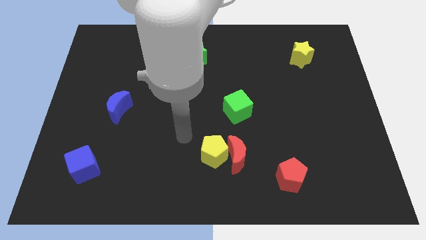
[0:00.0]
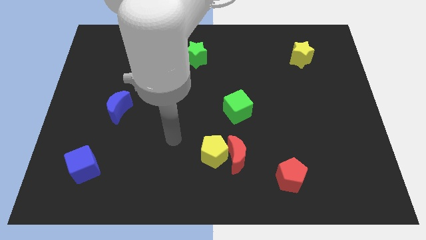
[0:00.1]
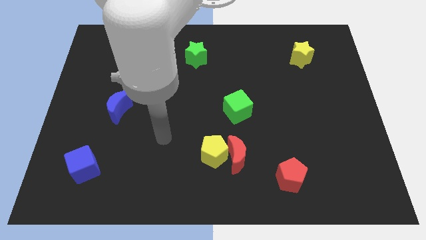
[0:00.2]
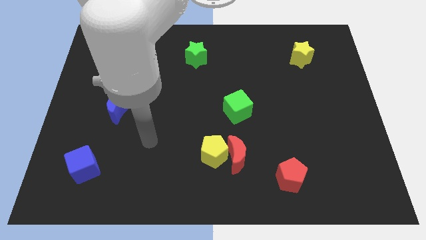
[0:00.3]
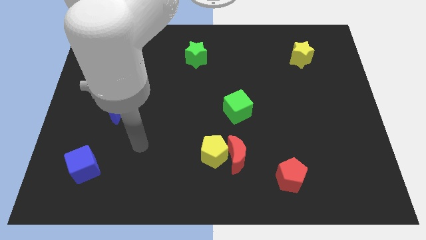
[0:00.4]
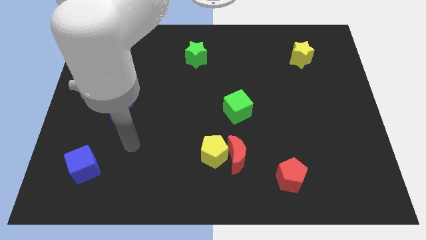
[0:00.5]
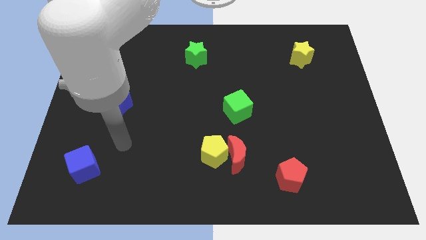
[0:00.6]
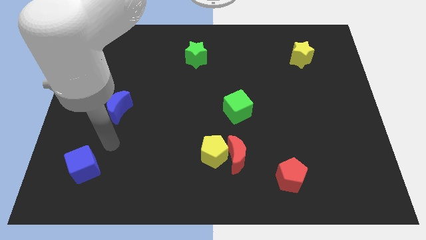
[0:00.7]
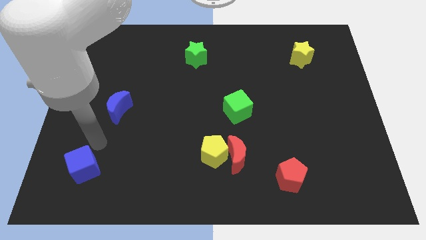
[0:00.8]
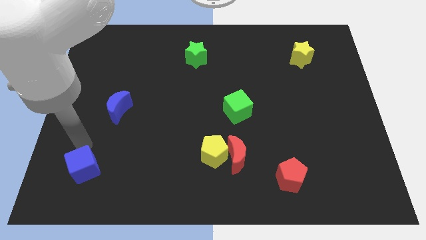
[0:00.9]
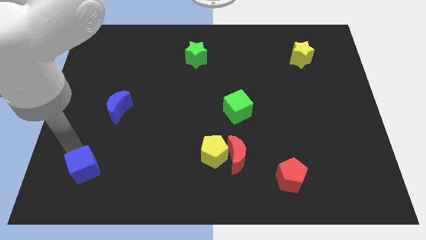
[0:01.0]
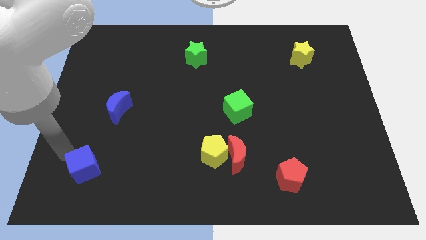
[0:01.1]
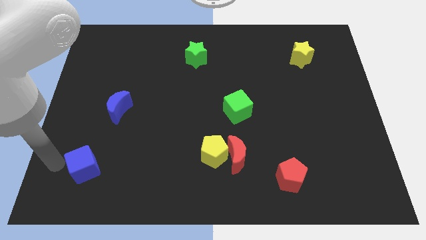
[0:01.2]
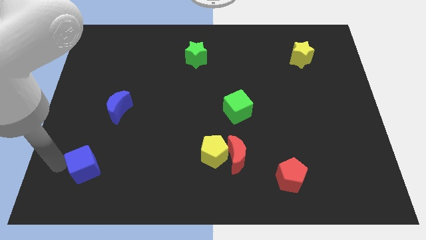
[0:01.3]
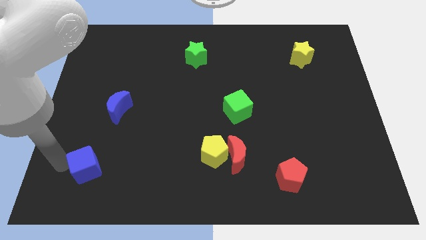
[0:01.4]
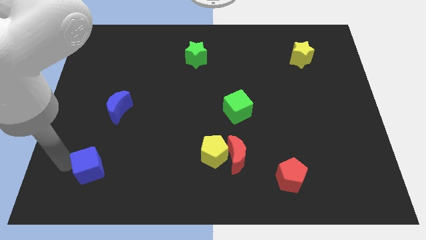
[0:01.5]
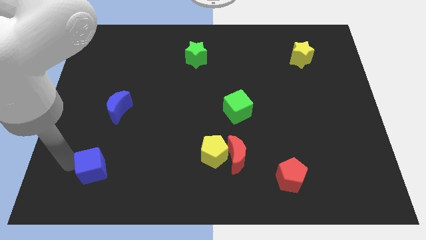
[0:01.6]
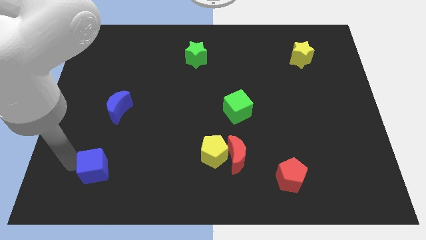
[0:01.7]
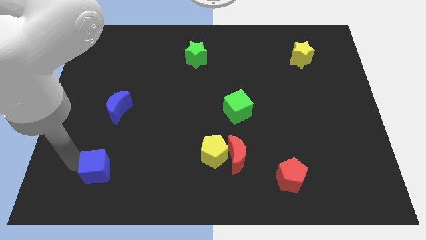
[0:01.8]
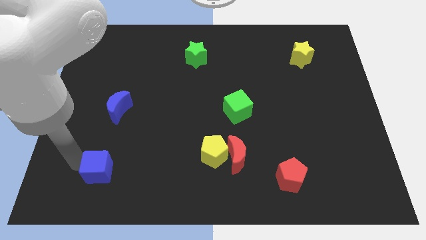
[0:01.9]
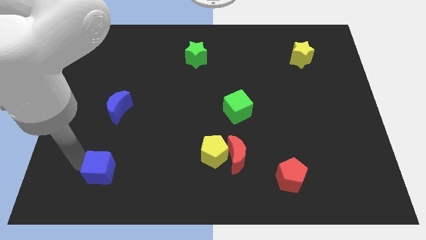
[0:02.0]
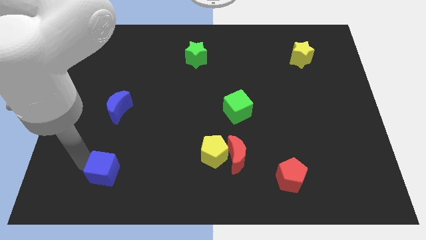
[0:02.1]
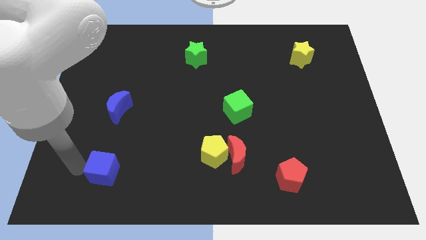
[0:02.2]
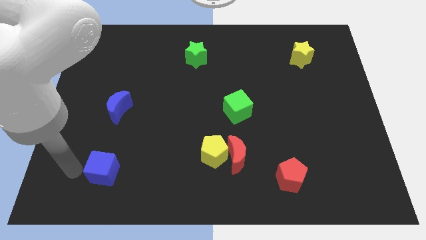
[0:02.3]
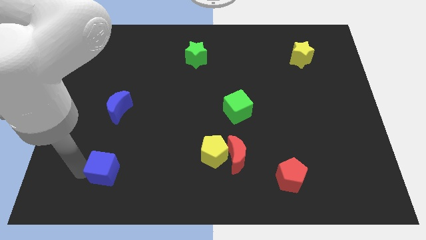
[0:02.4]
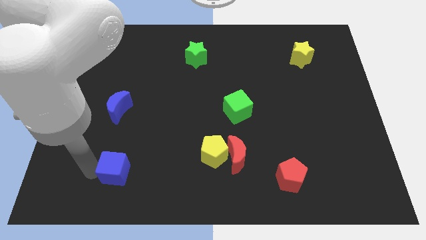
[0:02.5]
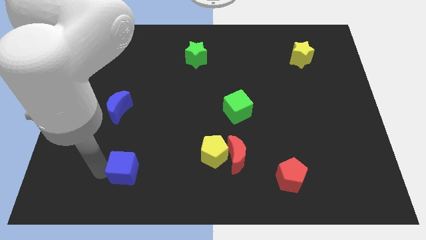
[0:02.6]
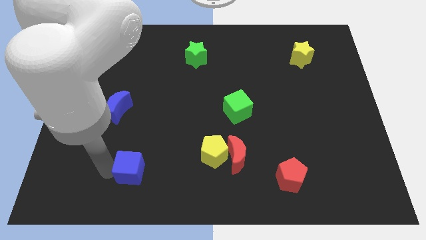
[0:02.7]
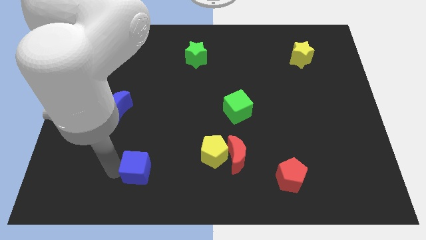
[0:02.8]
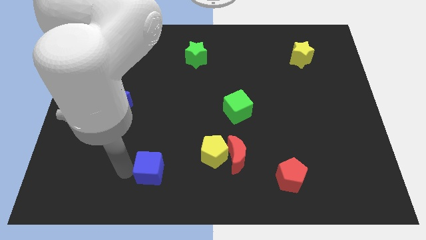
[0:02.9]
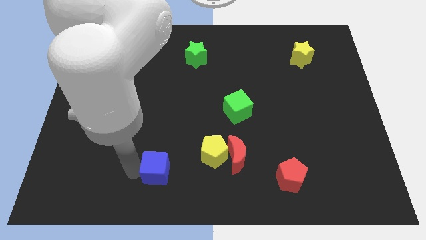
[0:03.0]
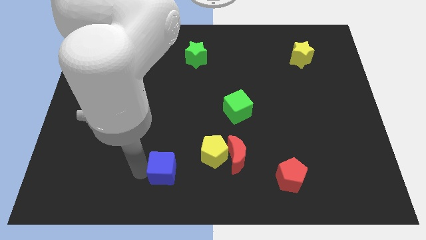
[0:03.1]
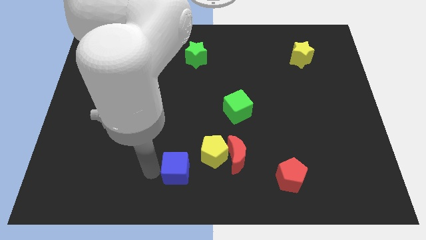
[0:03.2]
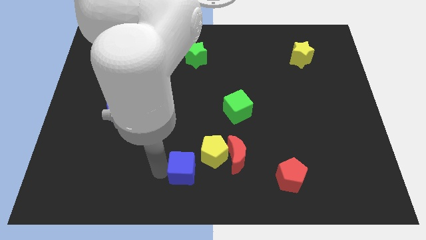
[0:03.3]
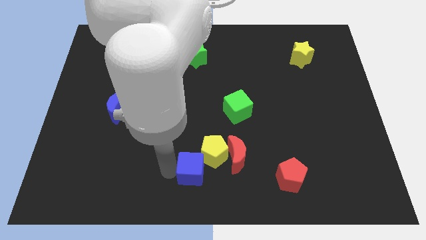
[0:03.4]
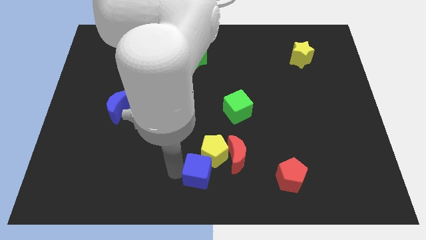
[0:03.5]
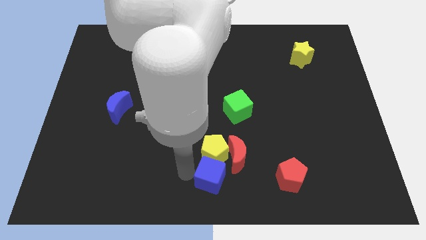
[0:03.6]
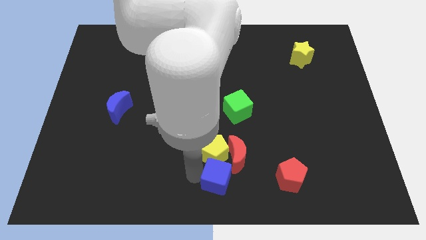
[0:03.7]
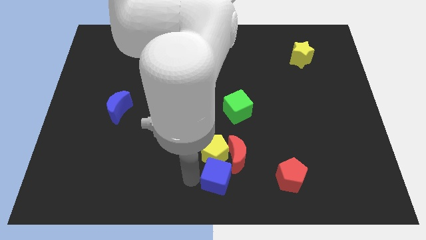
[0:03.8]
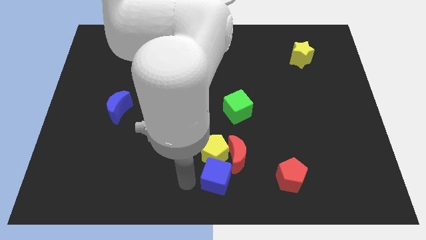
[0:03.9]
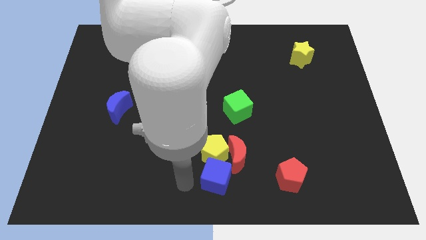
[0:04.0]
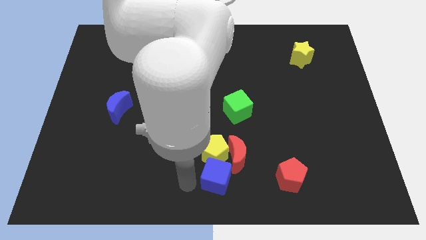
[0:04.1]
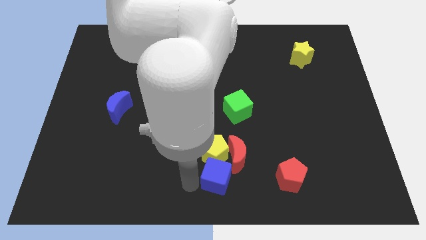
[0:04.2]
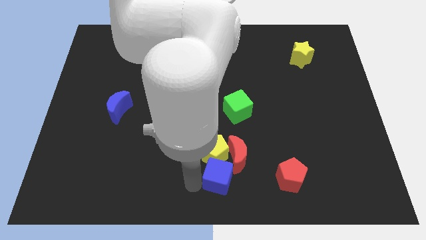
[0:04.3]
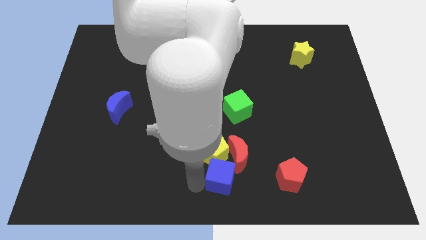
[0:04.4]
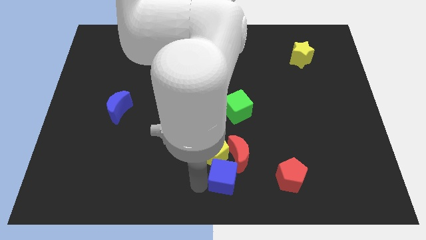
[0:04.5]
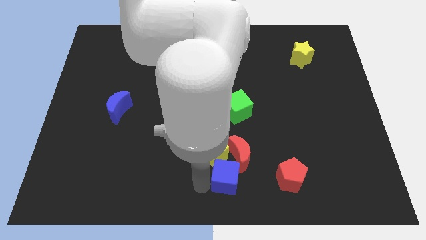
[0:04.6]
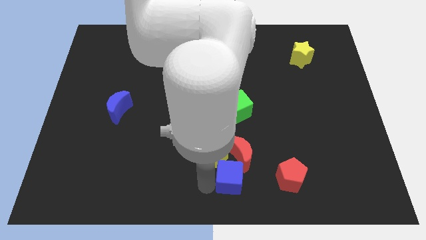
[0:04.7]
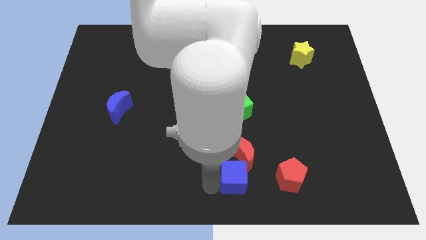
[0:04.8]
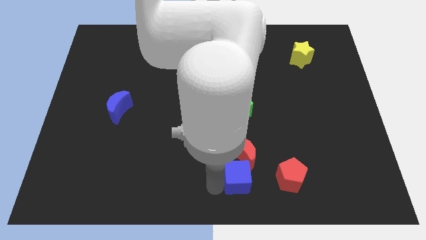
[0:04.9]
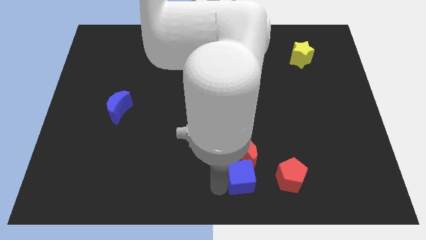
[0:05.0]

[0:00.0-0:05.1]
push the blue cube to the bottom right side of the red moon

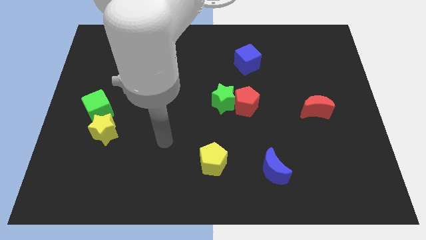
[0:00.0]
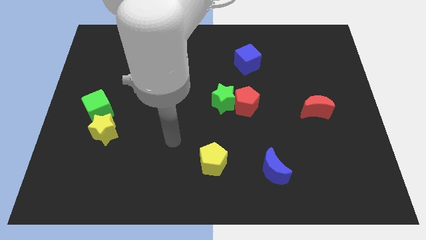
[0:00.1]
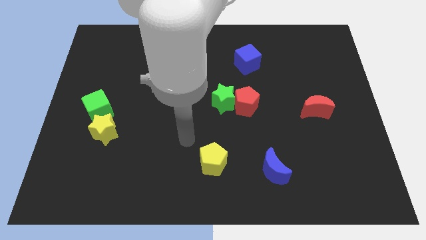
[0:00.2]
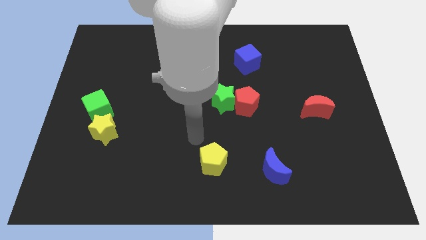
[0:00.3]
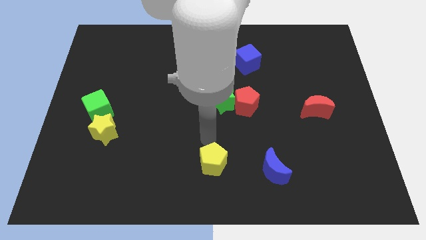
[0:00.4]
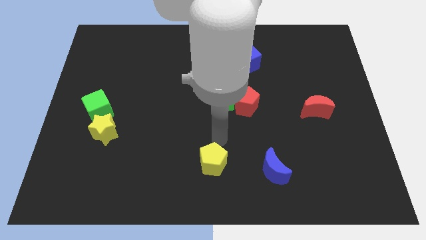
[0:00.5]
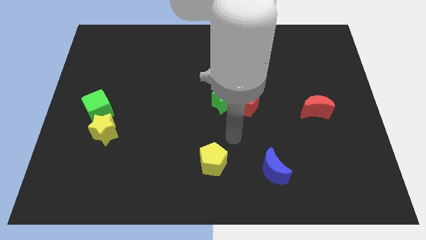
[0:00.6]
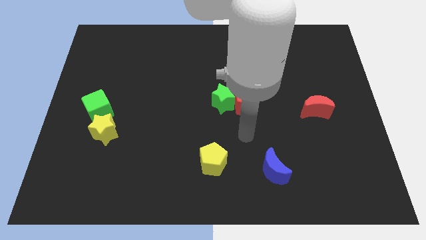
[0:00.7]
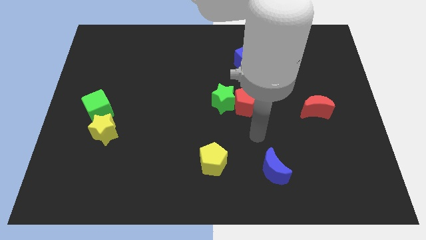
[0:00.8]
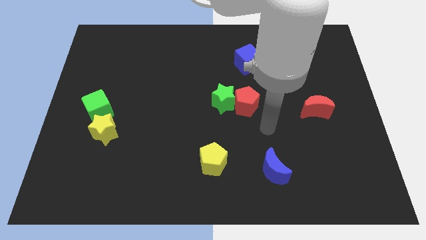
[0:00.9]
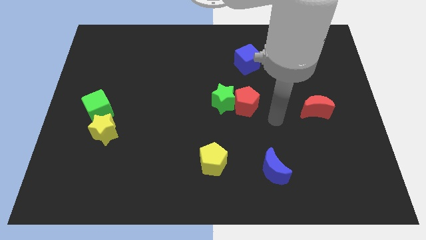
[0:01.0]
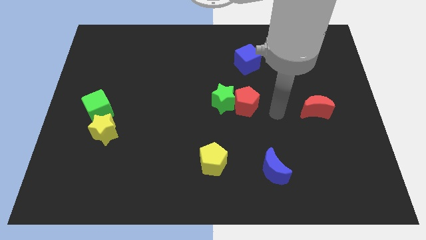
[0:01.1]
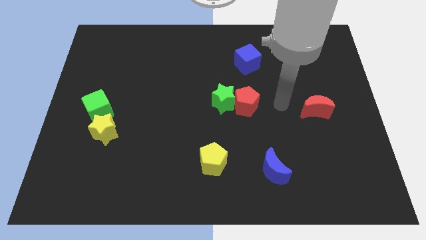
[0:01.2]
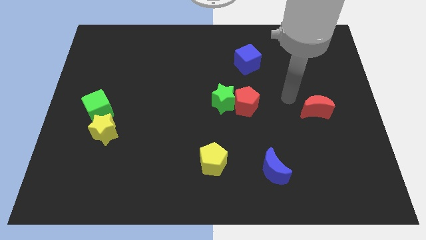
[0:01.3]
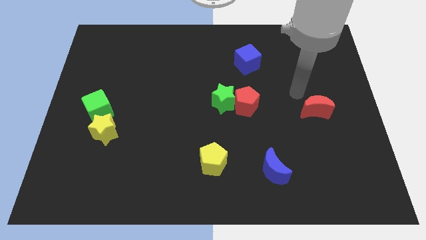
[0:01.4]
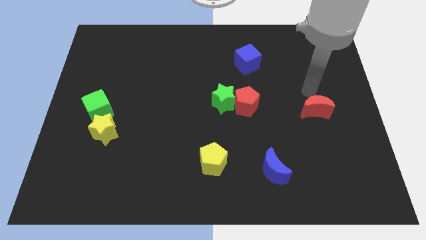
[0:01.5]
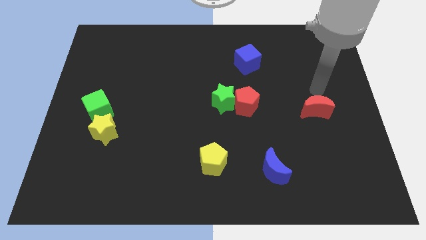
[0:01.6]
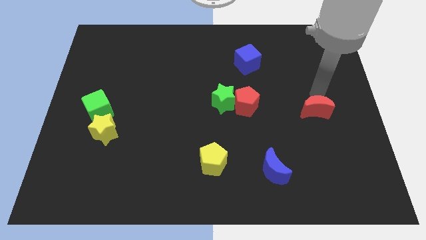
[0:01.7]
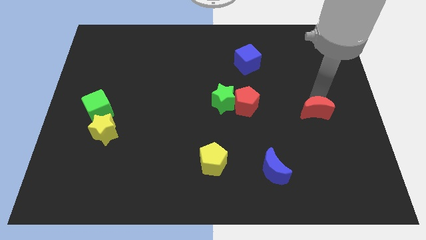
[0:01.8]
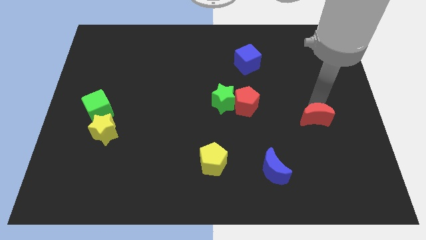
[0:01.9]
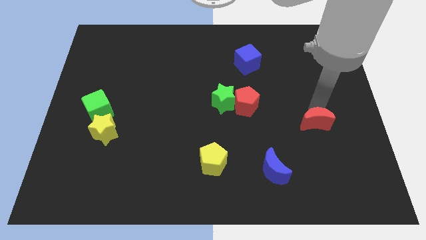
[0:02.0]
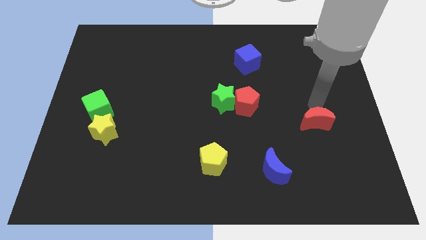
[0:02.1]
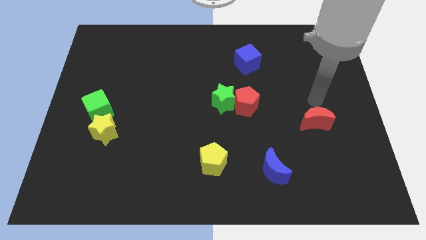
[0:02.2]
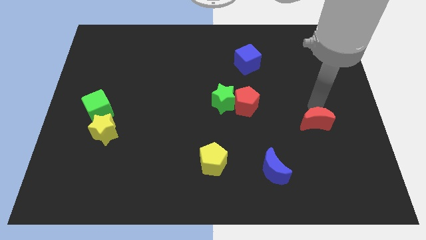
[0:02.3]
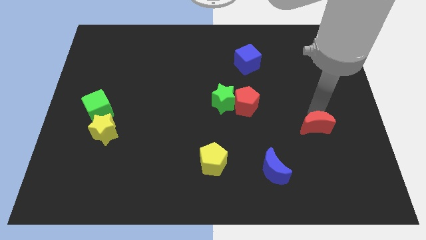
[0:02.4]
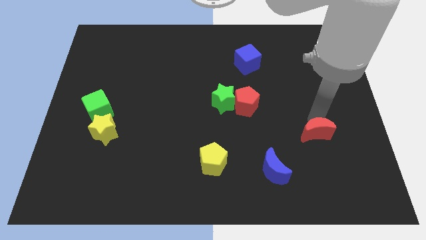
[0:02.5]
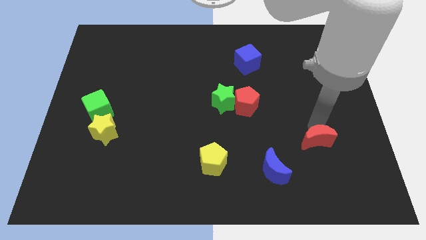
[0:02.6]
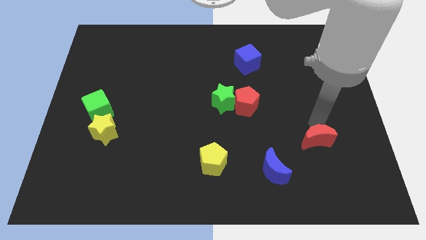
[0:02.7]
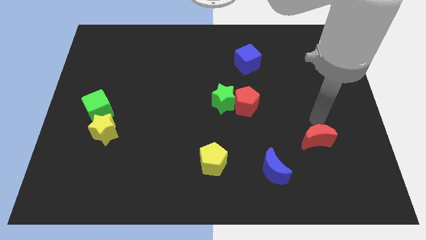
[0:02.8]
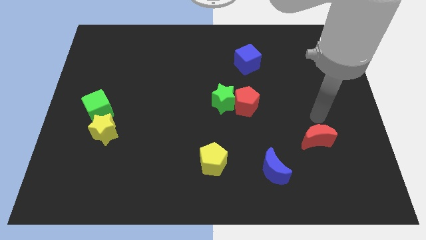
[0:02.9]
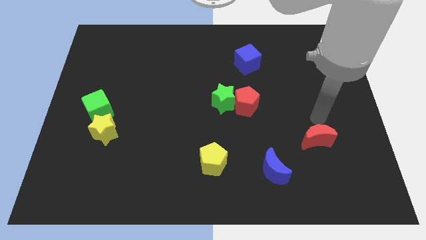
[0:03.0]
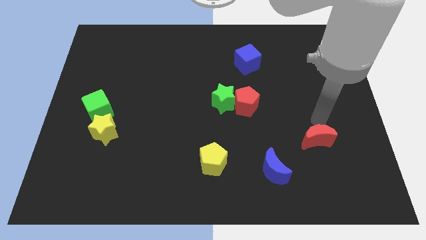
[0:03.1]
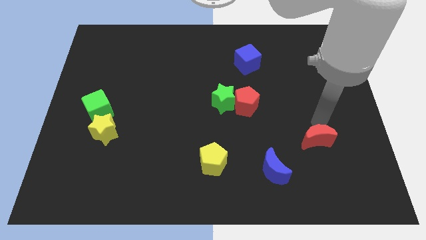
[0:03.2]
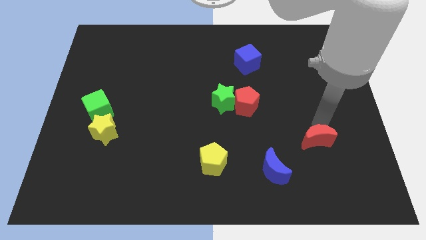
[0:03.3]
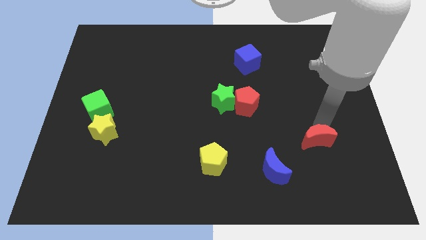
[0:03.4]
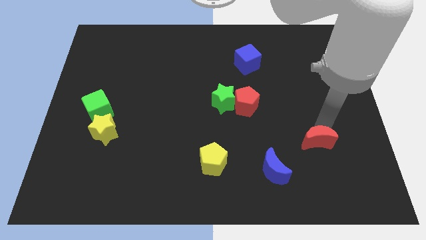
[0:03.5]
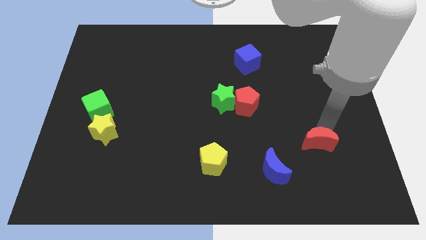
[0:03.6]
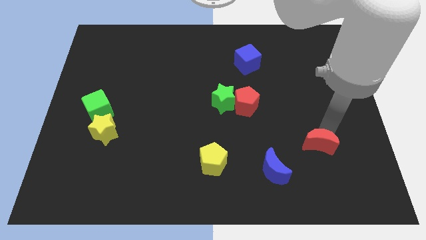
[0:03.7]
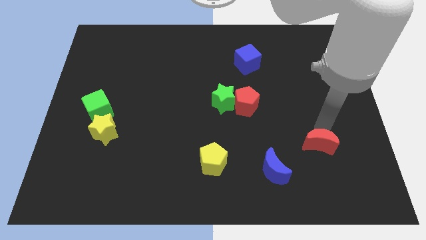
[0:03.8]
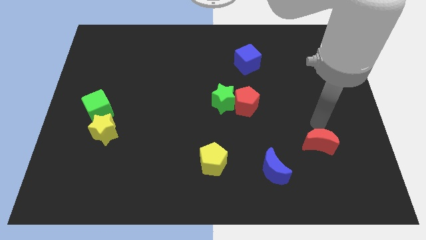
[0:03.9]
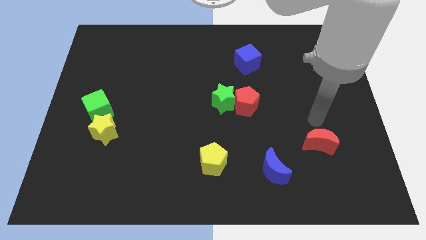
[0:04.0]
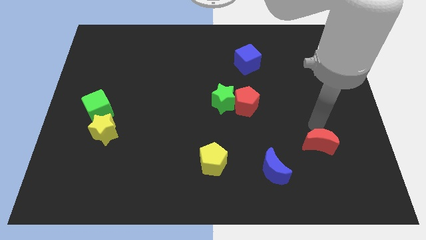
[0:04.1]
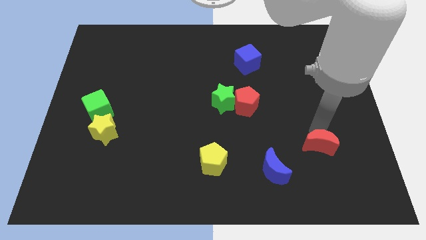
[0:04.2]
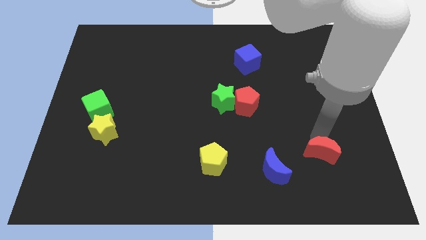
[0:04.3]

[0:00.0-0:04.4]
slide the red moon just right of the blue moon
